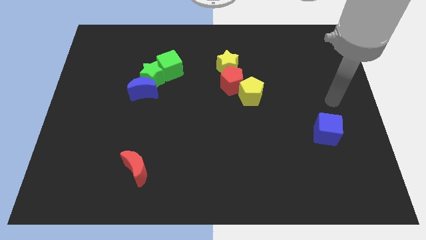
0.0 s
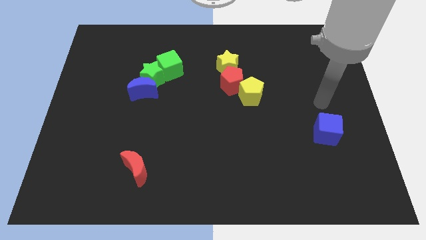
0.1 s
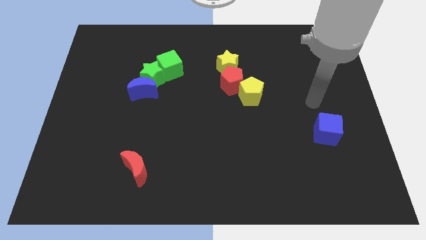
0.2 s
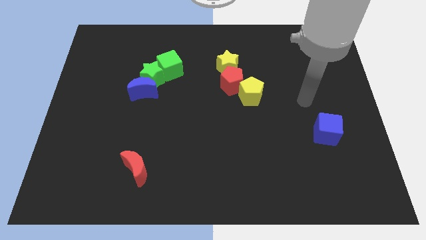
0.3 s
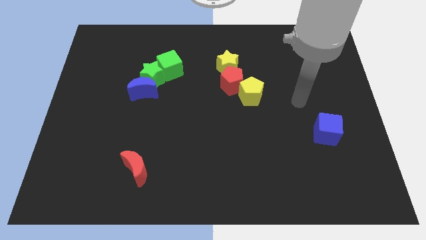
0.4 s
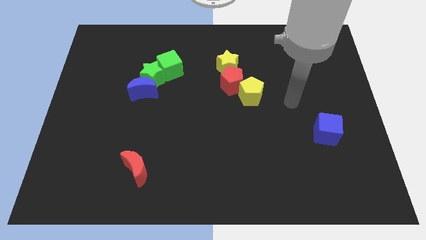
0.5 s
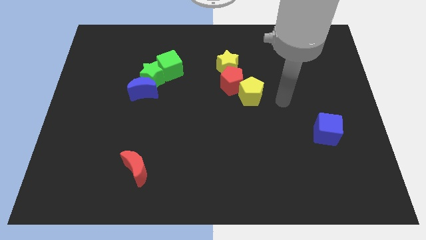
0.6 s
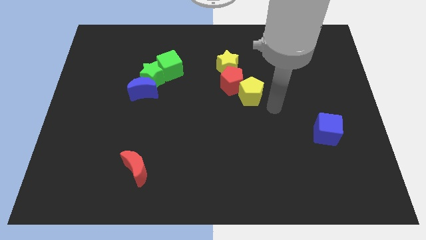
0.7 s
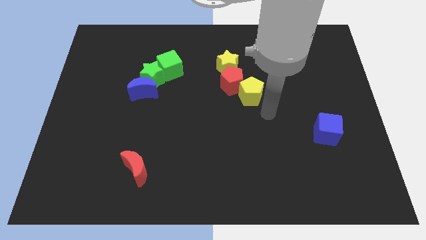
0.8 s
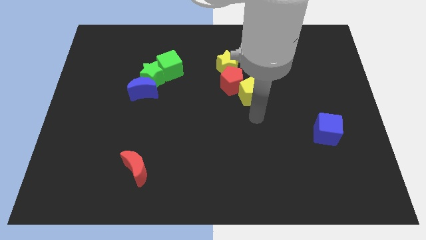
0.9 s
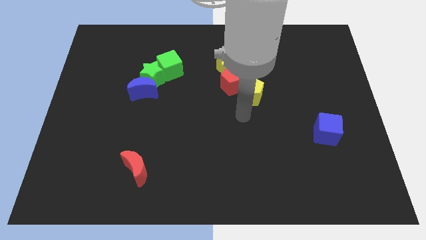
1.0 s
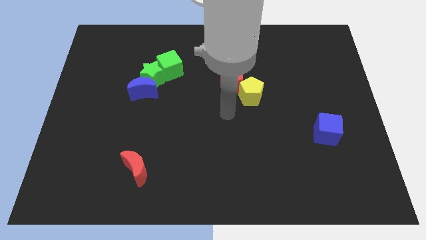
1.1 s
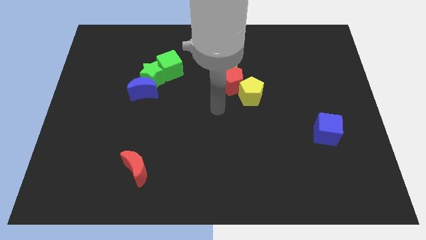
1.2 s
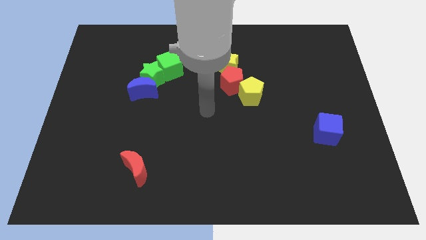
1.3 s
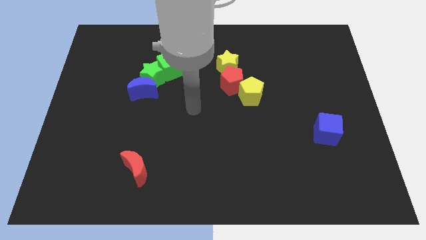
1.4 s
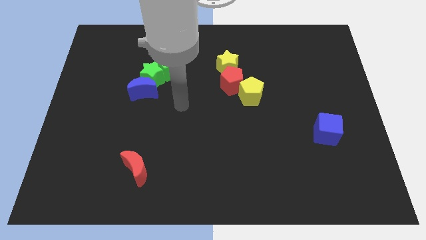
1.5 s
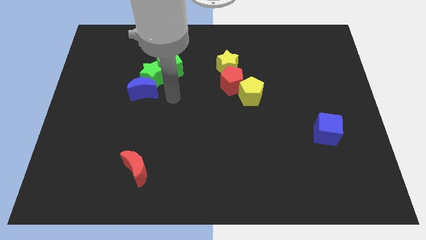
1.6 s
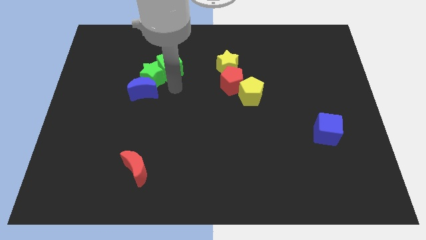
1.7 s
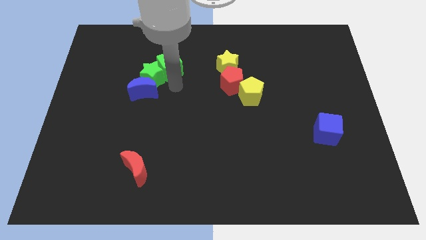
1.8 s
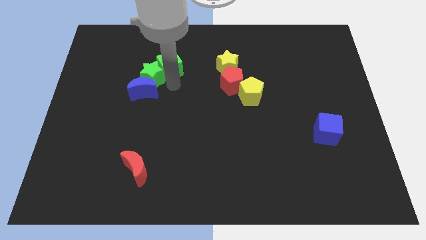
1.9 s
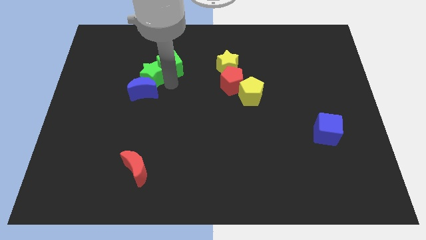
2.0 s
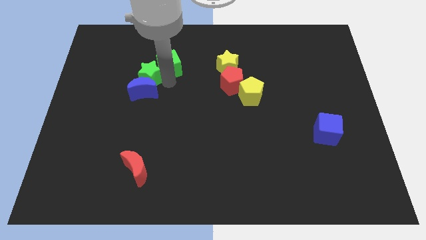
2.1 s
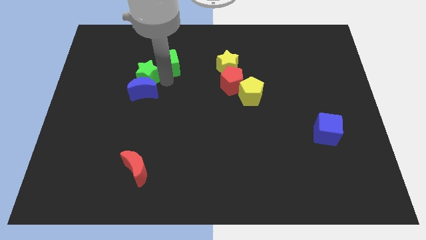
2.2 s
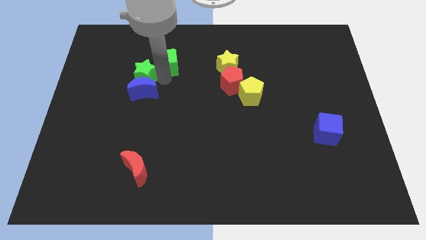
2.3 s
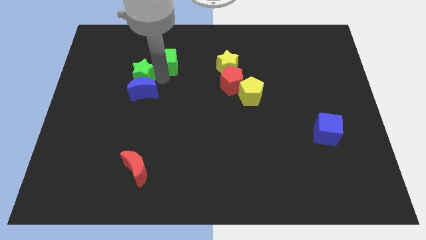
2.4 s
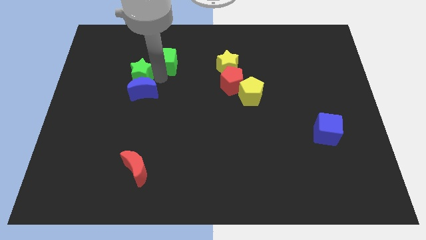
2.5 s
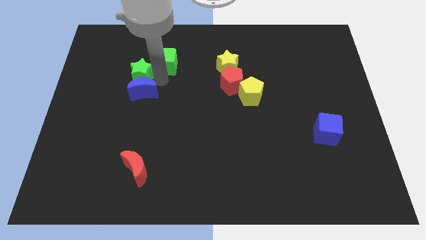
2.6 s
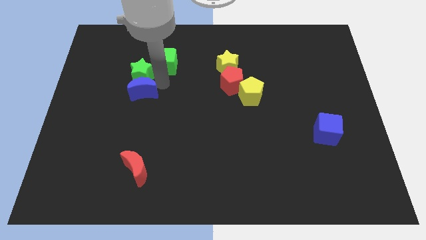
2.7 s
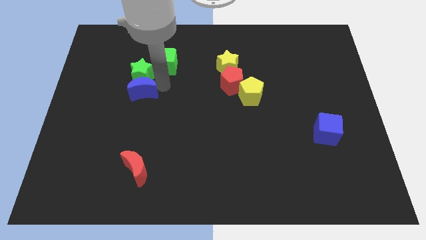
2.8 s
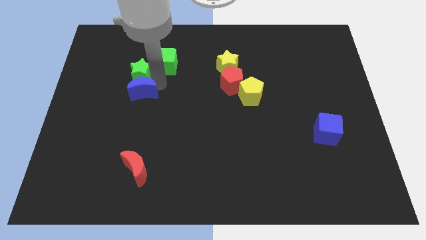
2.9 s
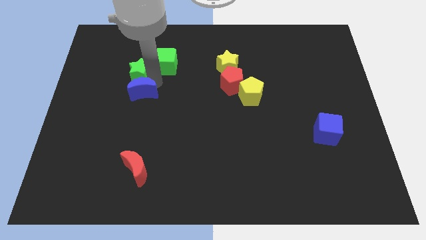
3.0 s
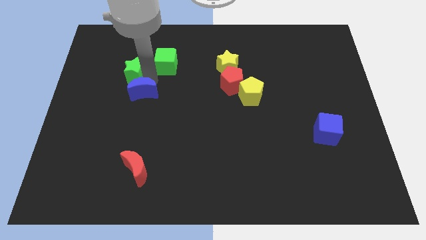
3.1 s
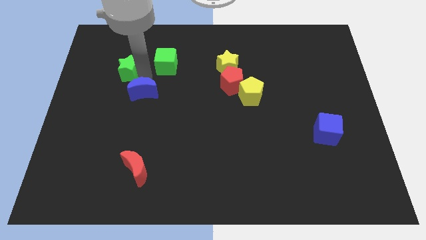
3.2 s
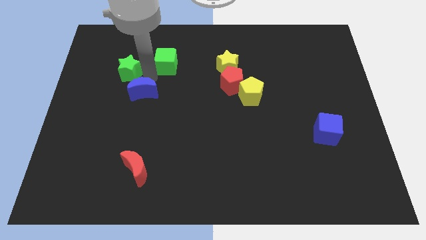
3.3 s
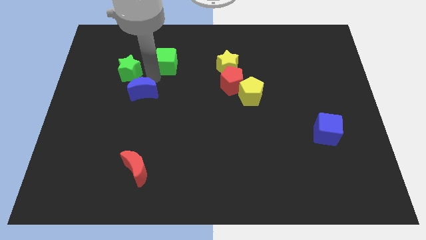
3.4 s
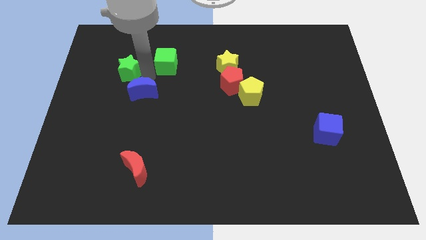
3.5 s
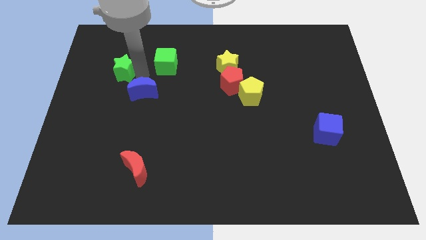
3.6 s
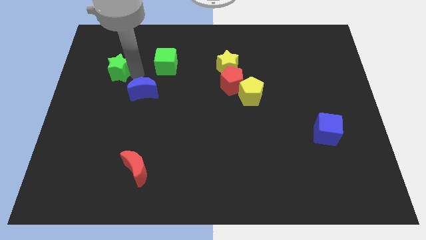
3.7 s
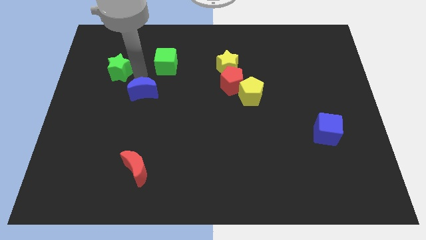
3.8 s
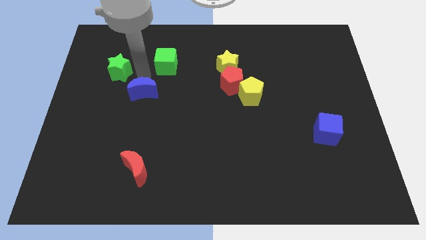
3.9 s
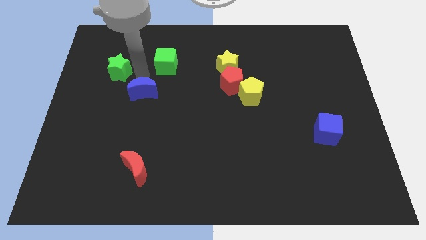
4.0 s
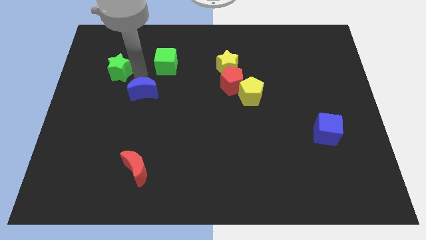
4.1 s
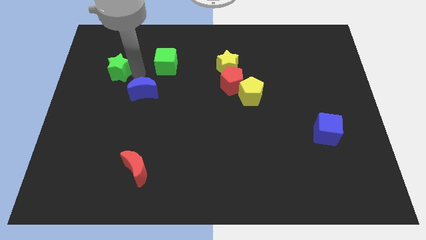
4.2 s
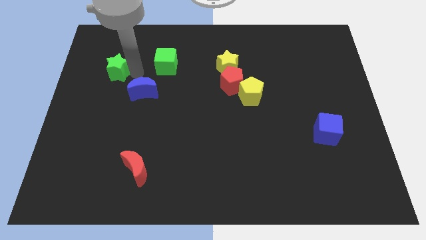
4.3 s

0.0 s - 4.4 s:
separate the green star from the blue moon and green cube

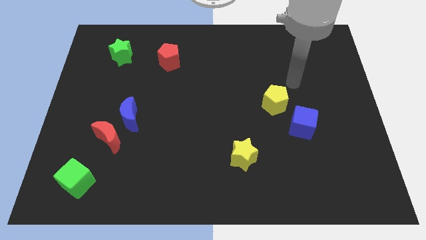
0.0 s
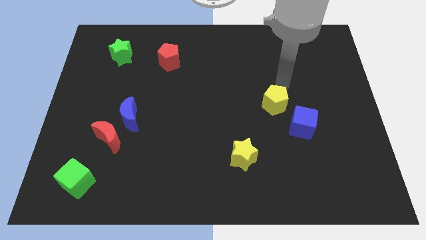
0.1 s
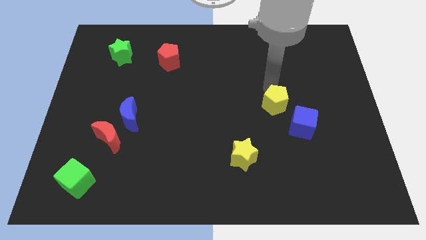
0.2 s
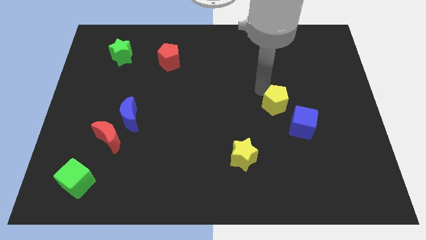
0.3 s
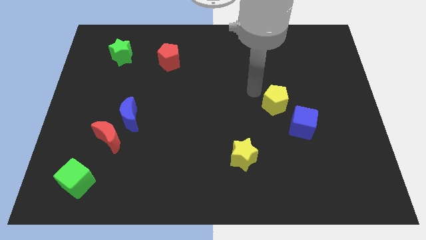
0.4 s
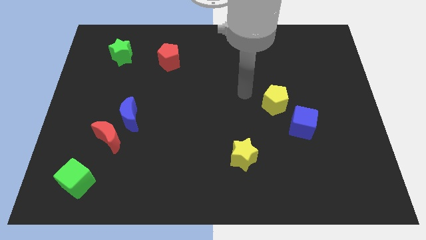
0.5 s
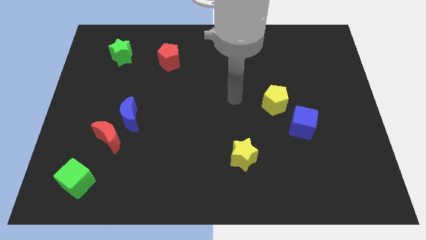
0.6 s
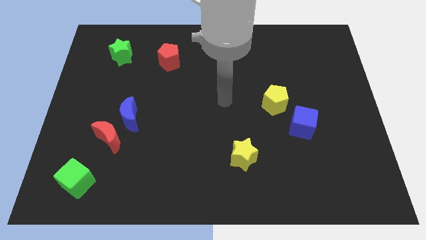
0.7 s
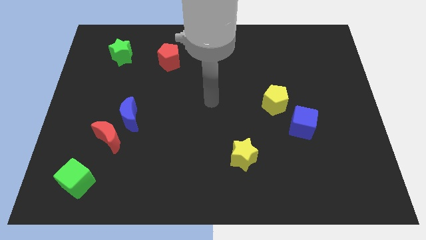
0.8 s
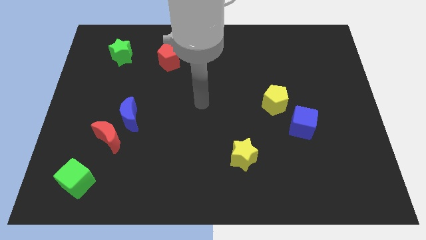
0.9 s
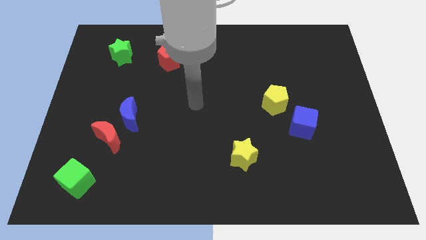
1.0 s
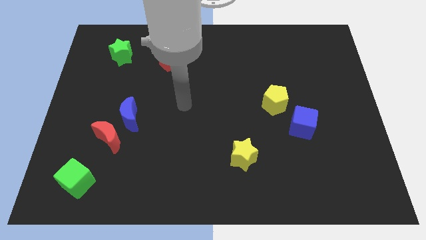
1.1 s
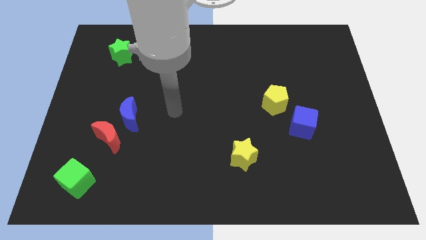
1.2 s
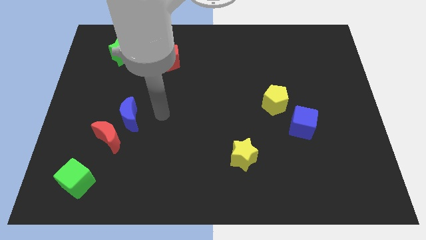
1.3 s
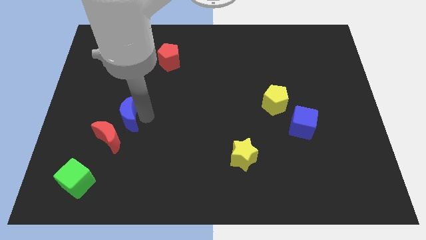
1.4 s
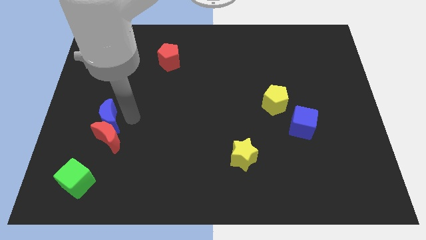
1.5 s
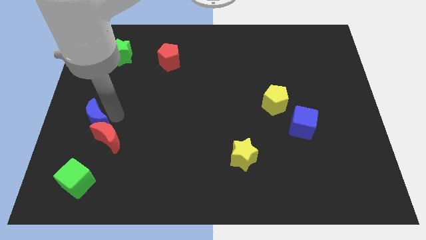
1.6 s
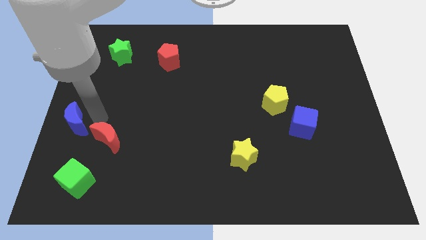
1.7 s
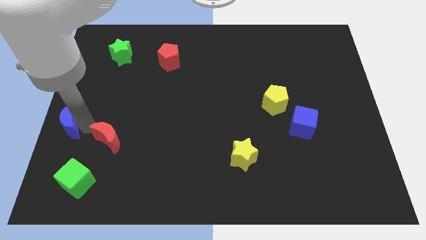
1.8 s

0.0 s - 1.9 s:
move the red moon away from the blue moon

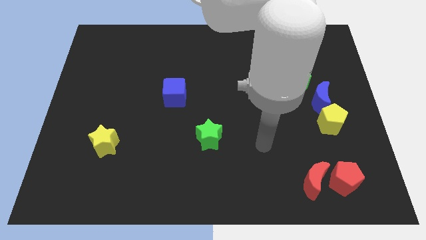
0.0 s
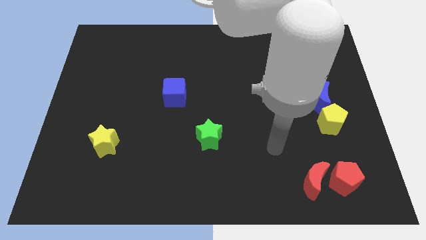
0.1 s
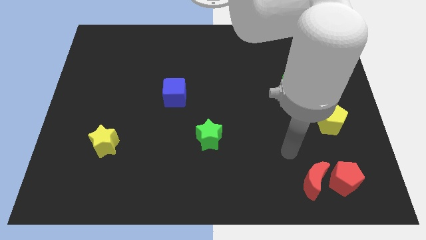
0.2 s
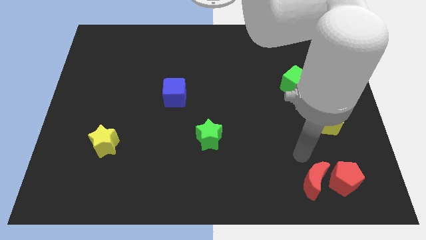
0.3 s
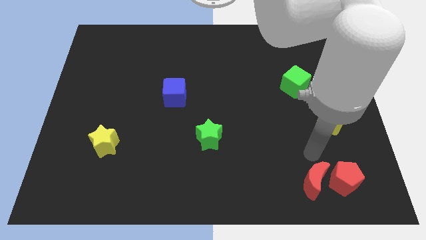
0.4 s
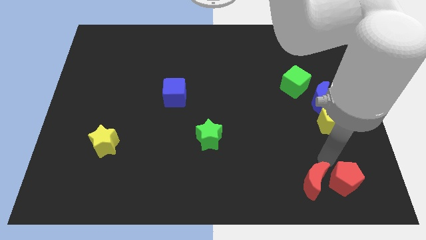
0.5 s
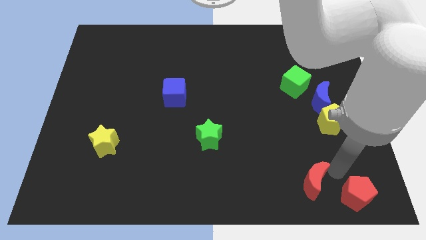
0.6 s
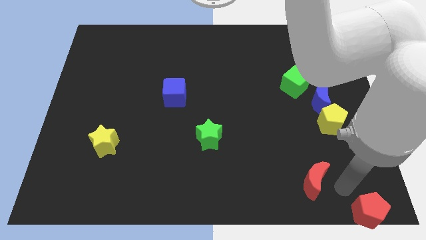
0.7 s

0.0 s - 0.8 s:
separate the red moon from the red pentagon

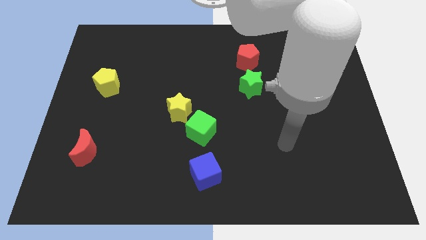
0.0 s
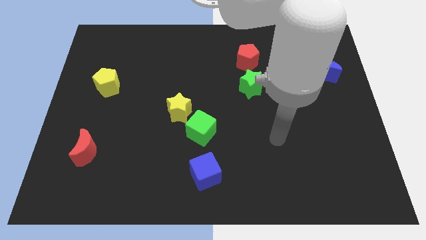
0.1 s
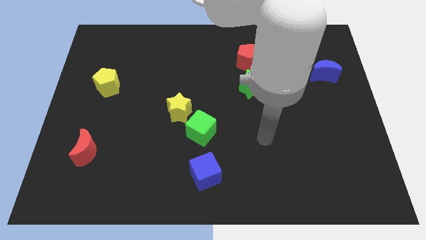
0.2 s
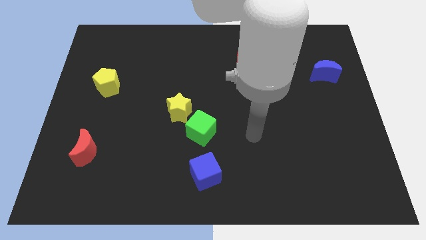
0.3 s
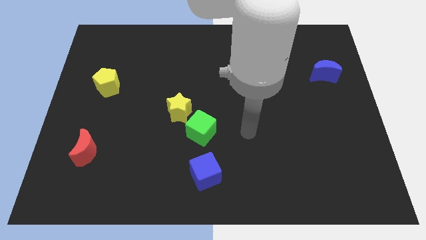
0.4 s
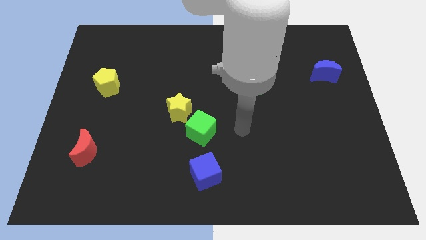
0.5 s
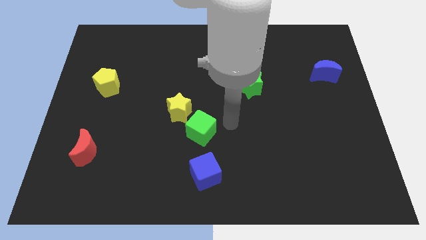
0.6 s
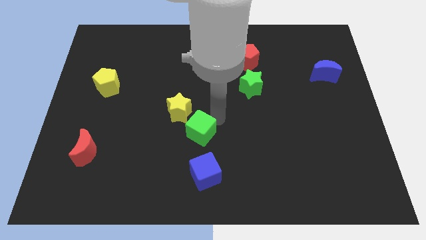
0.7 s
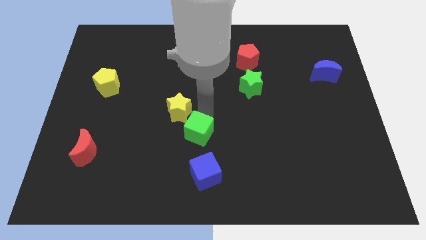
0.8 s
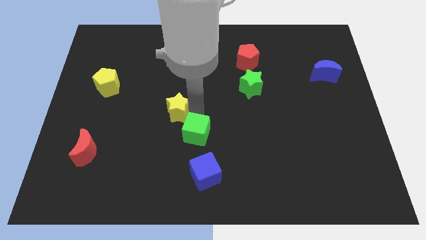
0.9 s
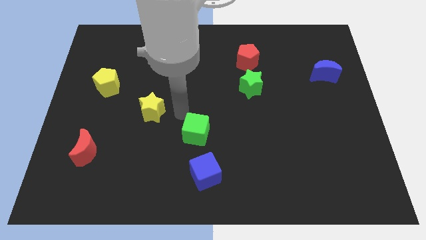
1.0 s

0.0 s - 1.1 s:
separate the green cube from the yellow star

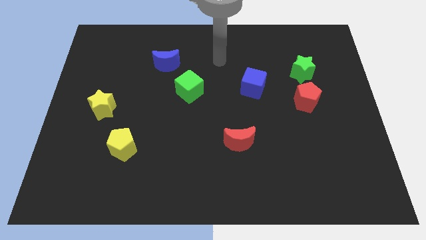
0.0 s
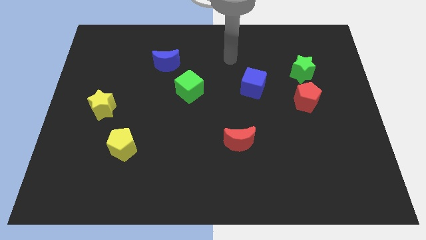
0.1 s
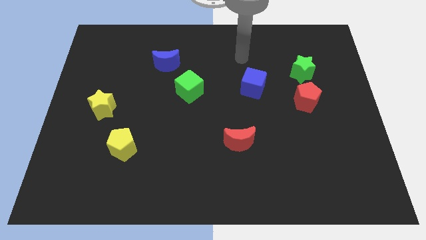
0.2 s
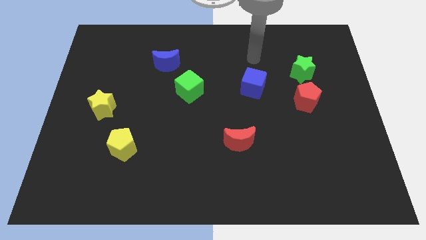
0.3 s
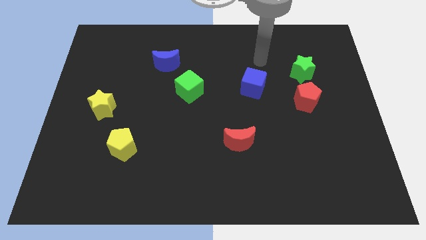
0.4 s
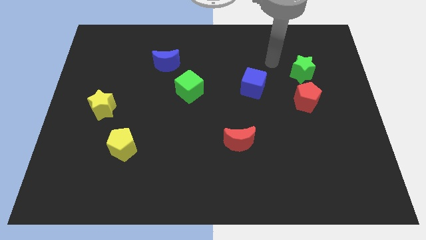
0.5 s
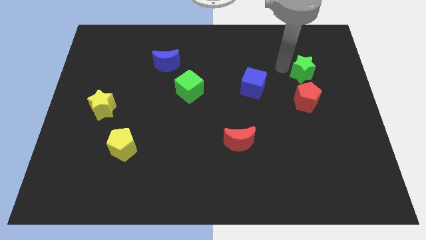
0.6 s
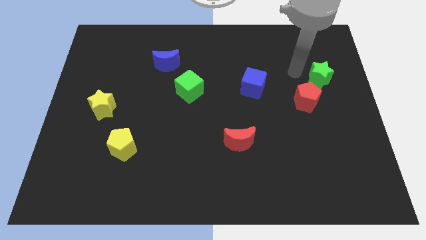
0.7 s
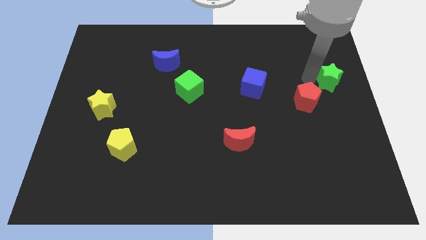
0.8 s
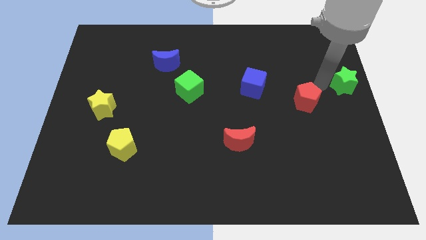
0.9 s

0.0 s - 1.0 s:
move the red pentagon away from the green star

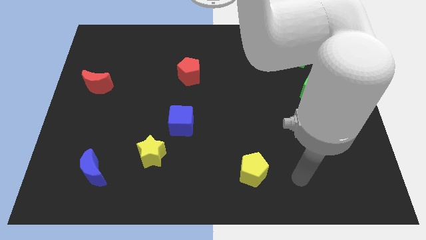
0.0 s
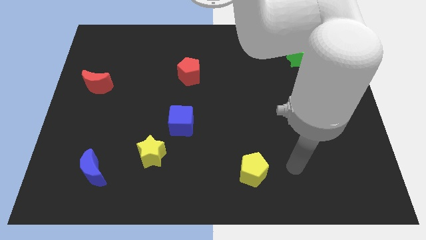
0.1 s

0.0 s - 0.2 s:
move the blue cube away from the yellow star

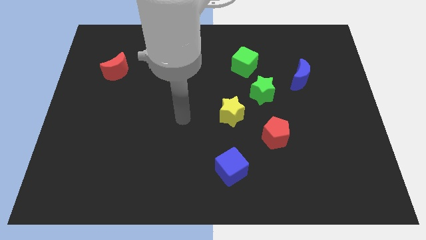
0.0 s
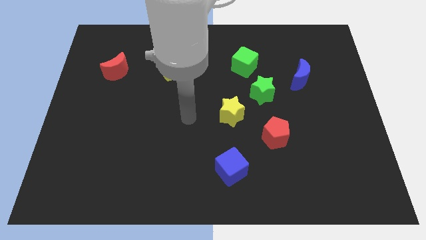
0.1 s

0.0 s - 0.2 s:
move the green cube away from the green star
